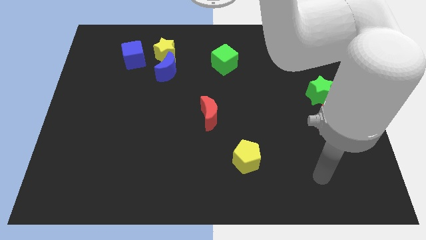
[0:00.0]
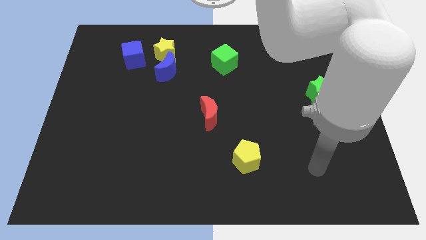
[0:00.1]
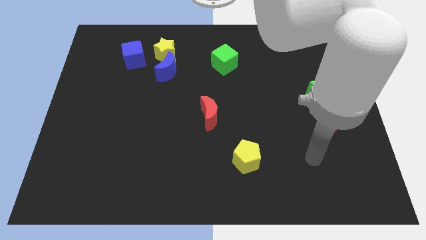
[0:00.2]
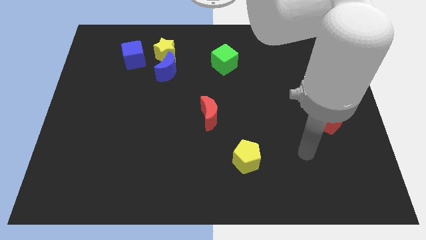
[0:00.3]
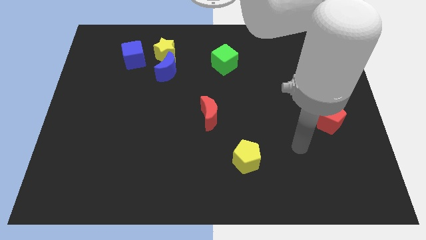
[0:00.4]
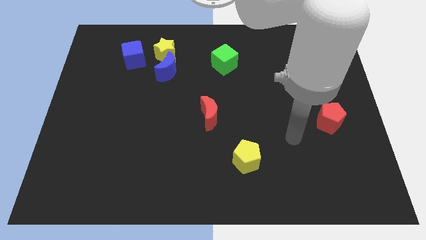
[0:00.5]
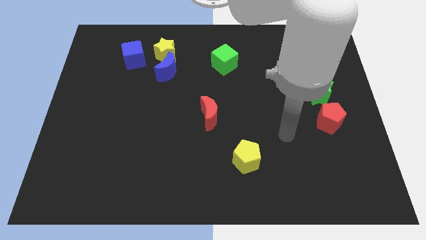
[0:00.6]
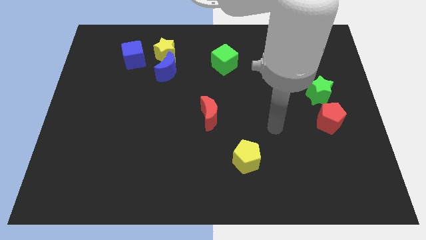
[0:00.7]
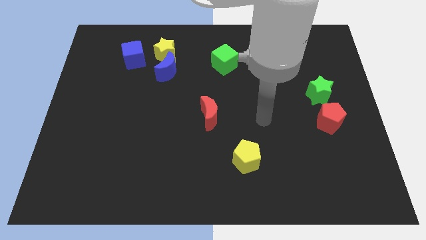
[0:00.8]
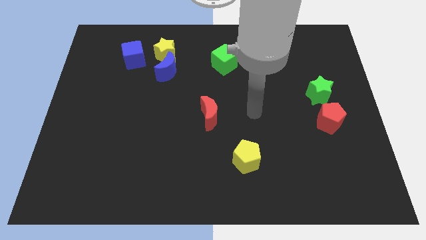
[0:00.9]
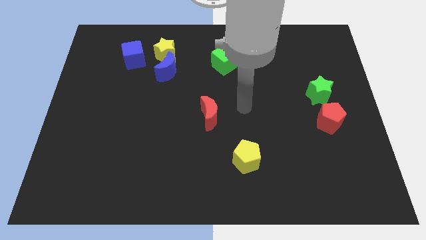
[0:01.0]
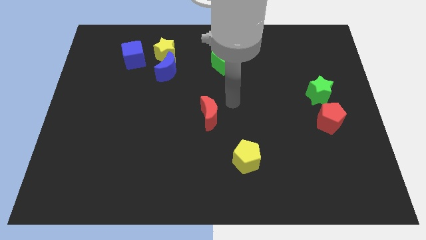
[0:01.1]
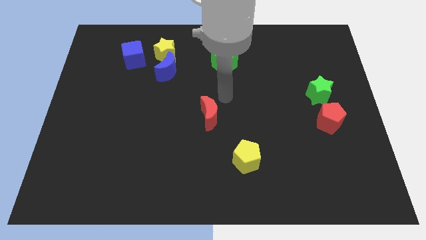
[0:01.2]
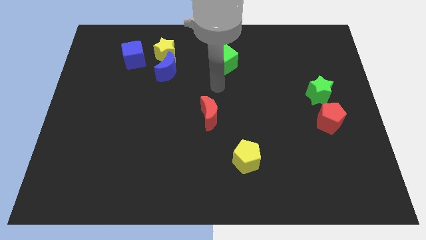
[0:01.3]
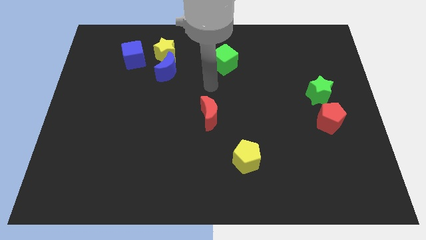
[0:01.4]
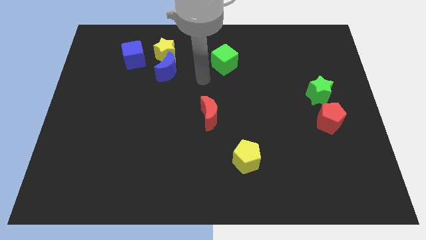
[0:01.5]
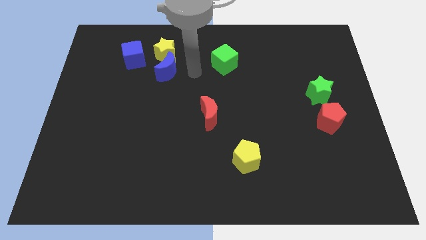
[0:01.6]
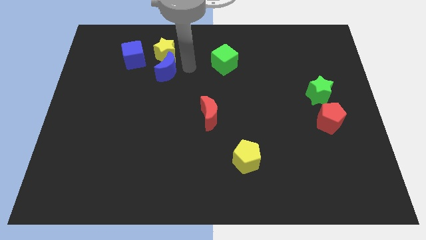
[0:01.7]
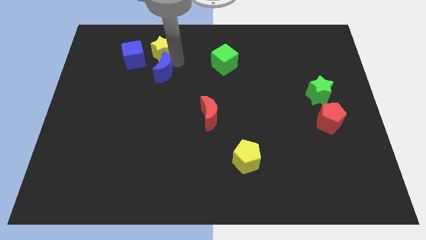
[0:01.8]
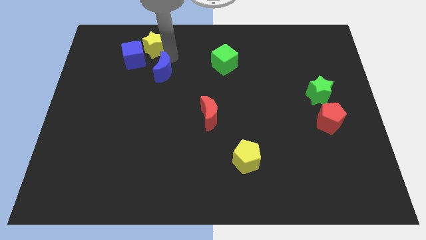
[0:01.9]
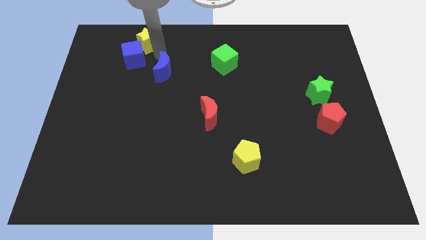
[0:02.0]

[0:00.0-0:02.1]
separate the blue moon from the yellow star

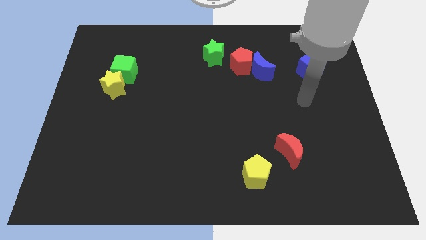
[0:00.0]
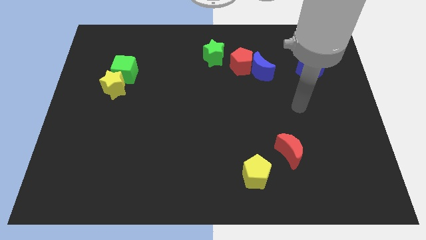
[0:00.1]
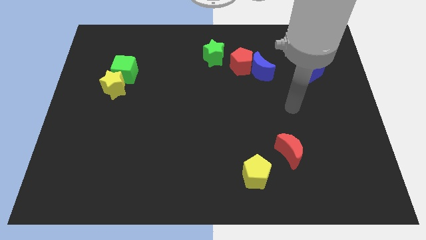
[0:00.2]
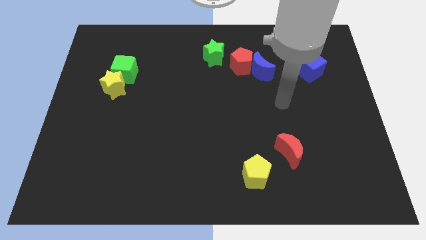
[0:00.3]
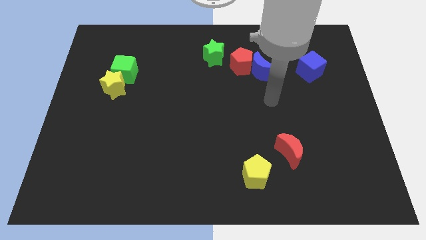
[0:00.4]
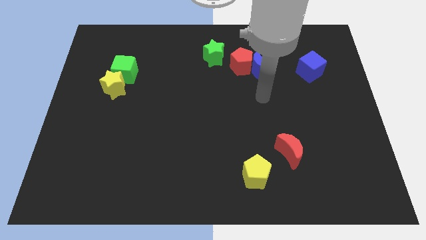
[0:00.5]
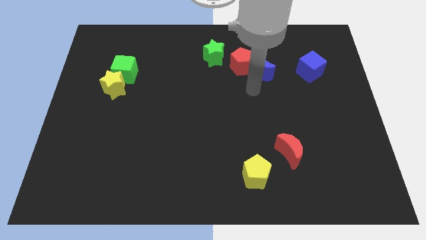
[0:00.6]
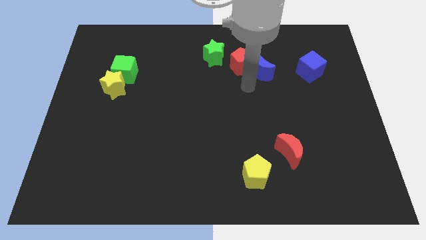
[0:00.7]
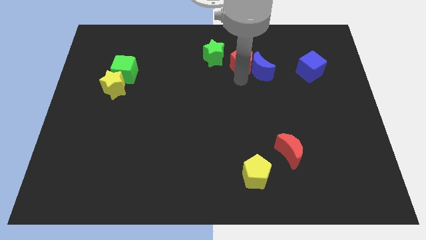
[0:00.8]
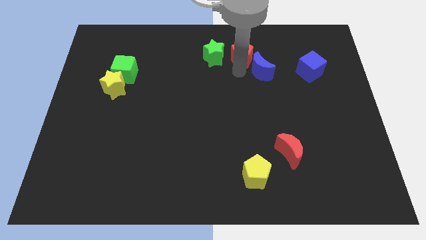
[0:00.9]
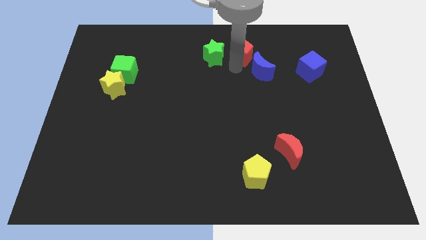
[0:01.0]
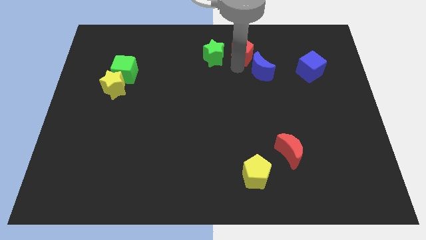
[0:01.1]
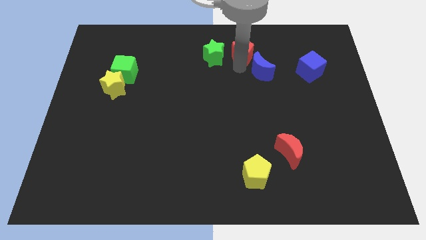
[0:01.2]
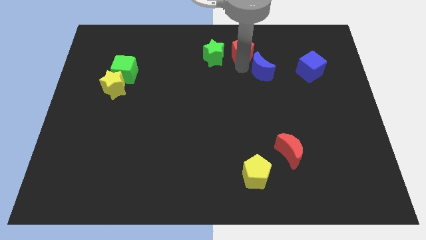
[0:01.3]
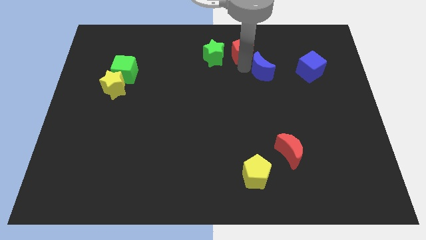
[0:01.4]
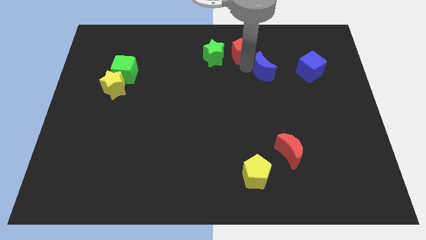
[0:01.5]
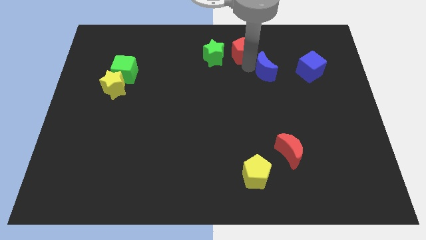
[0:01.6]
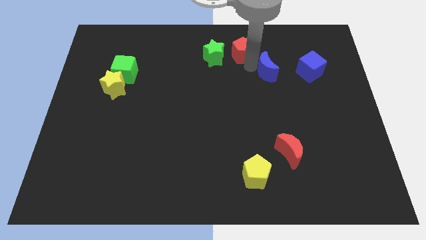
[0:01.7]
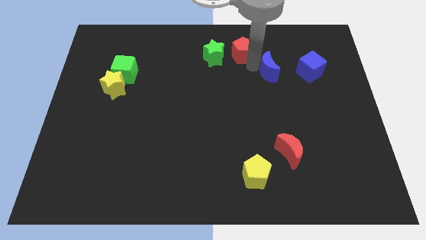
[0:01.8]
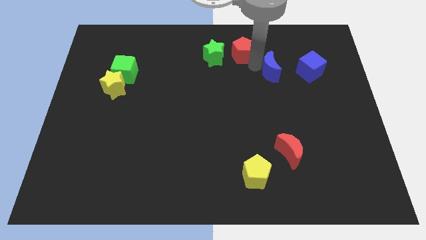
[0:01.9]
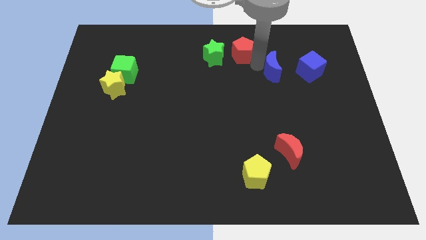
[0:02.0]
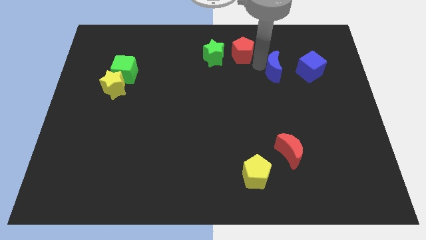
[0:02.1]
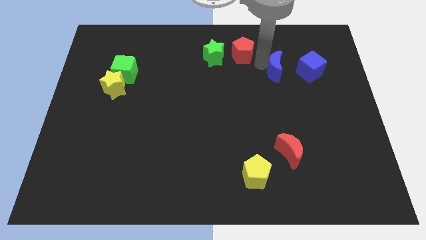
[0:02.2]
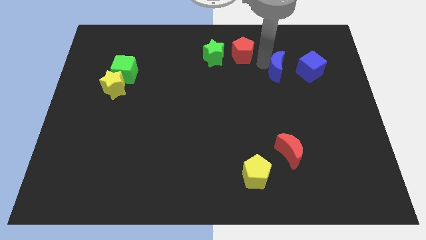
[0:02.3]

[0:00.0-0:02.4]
pull the blue moon apart from the red pentagon

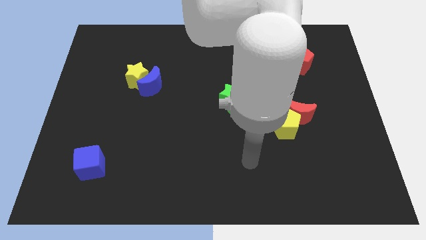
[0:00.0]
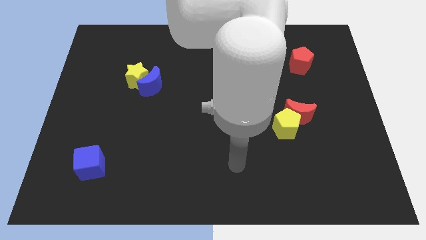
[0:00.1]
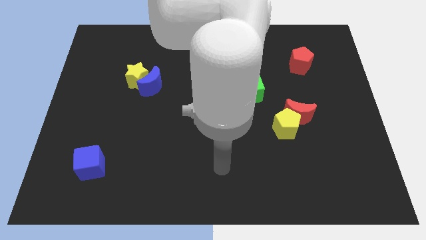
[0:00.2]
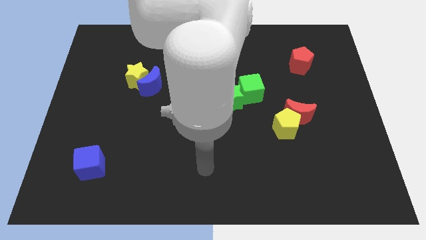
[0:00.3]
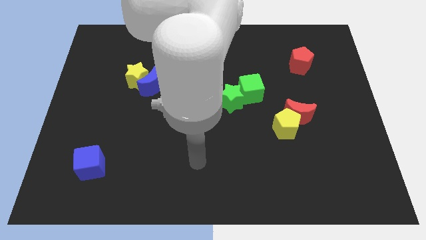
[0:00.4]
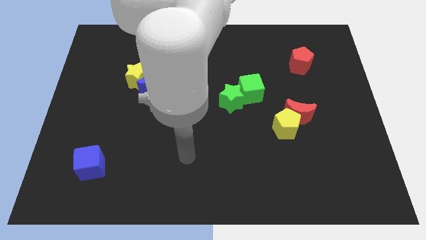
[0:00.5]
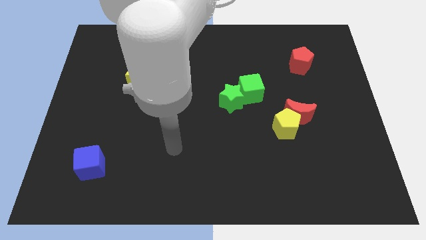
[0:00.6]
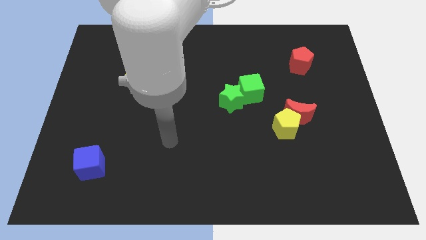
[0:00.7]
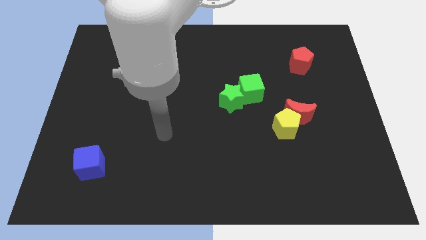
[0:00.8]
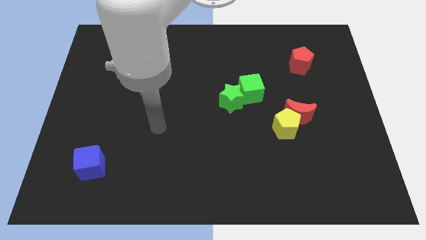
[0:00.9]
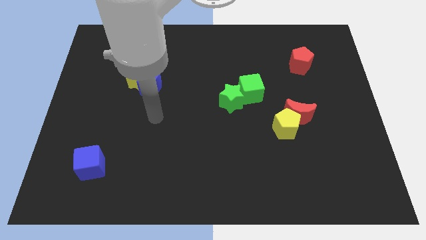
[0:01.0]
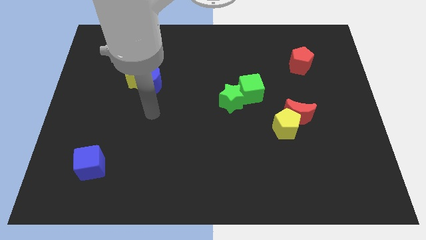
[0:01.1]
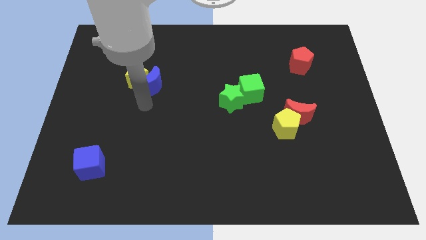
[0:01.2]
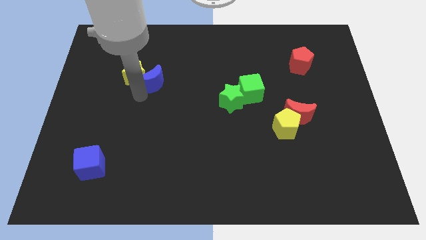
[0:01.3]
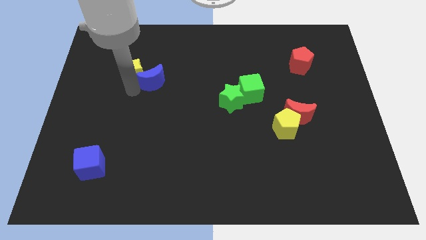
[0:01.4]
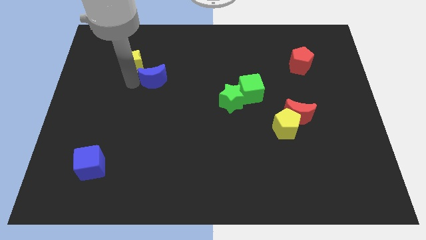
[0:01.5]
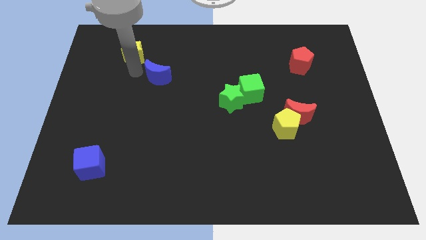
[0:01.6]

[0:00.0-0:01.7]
move the blue moon away from the yellow star

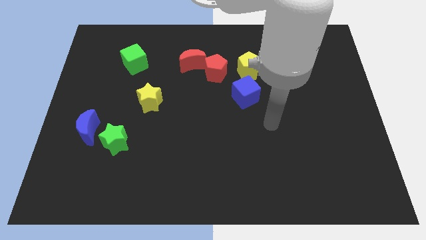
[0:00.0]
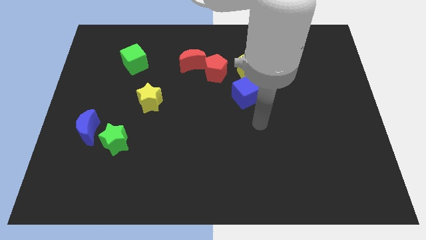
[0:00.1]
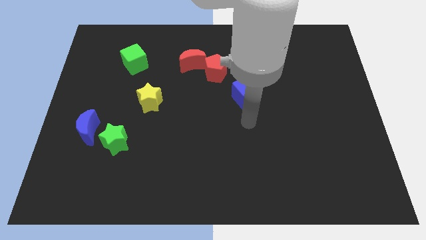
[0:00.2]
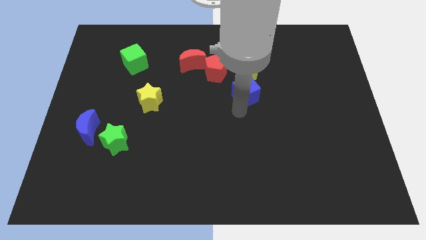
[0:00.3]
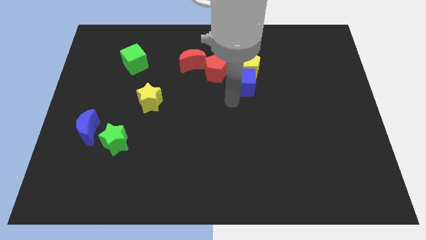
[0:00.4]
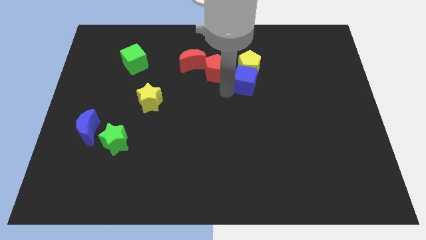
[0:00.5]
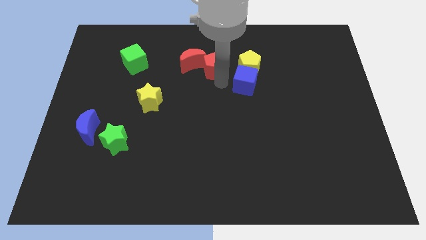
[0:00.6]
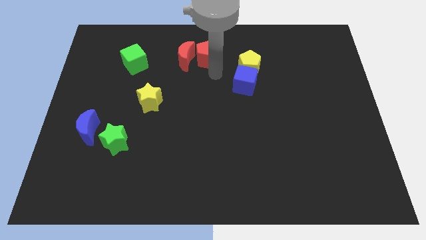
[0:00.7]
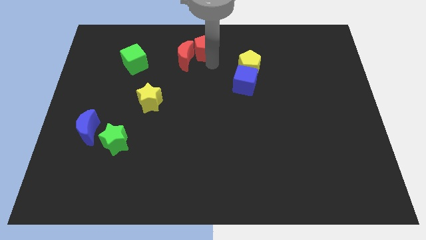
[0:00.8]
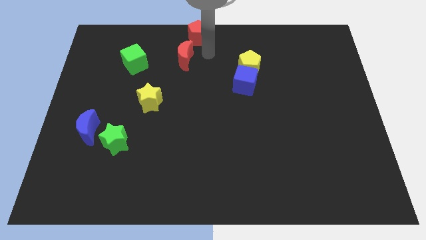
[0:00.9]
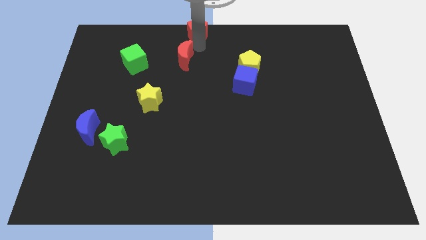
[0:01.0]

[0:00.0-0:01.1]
separate the red moon from the red pentagon

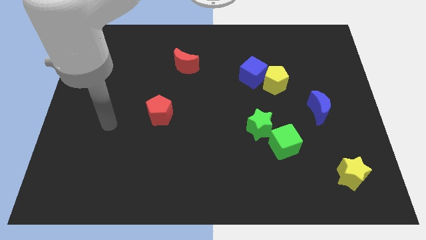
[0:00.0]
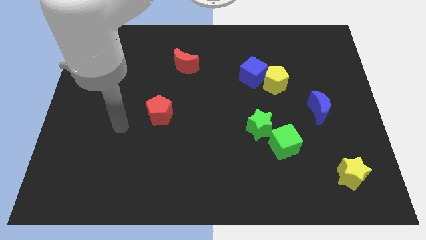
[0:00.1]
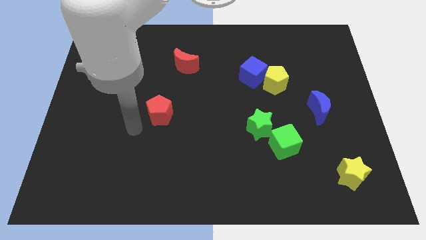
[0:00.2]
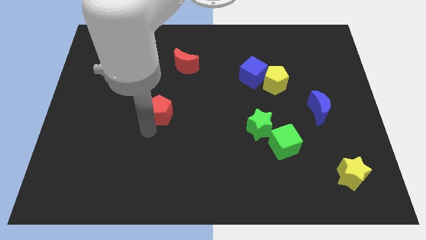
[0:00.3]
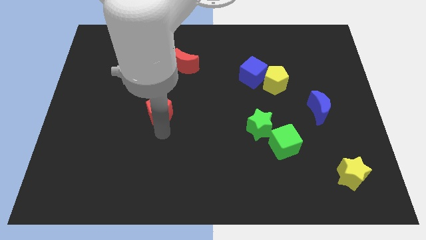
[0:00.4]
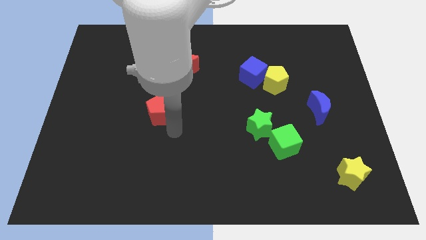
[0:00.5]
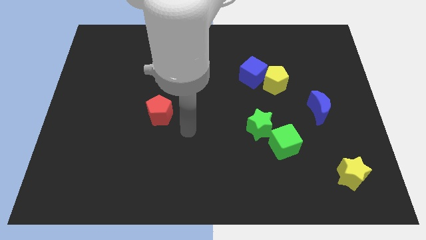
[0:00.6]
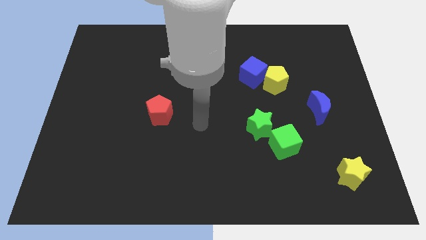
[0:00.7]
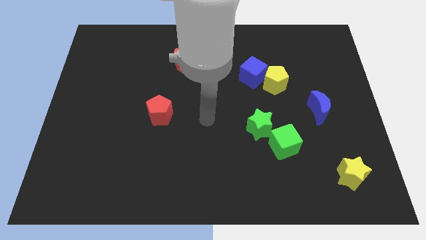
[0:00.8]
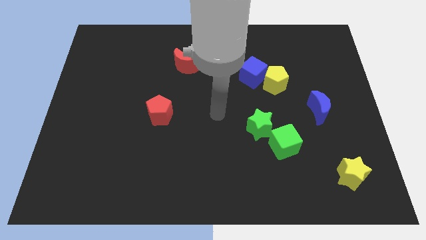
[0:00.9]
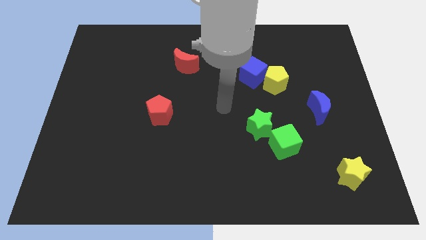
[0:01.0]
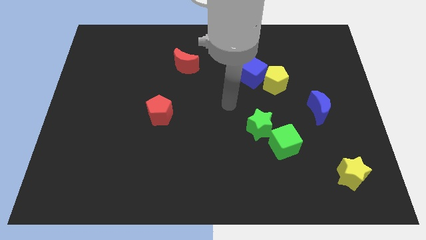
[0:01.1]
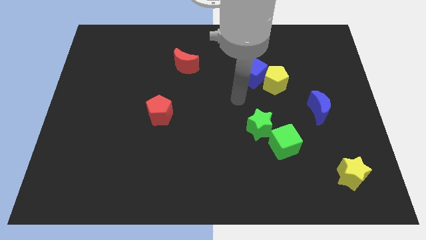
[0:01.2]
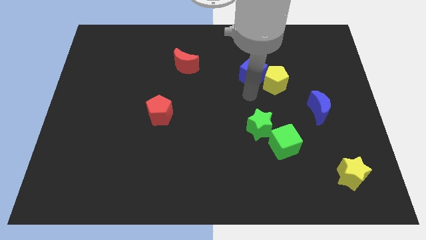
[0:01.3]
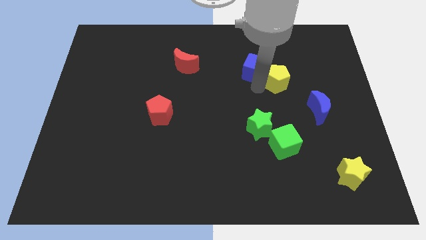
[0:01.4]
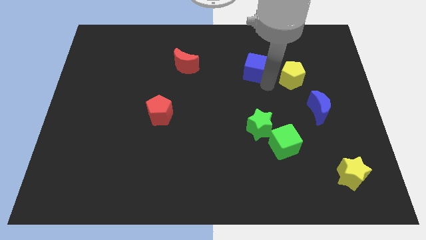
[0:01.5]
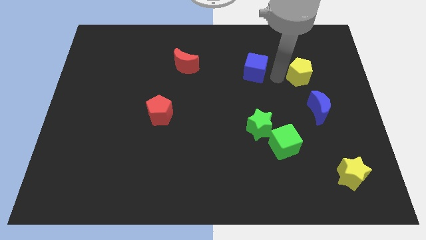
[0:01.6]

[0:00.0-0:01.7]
move the blue cube away from the yellow pentagon

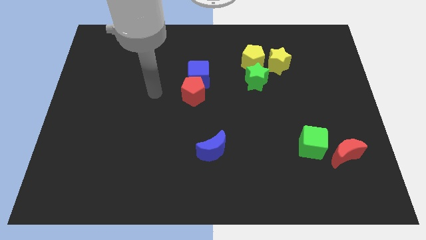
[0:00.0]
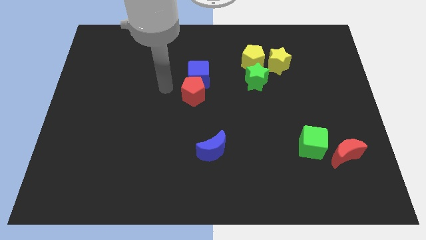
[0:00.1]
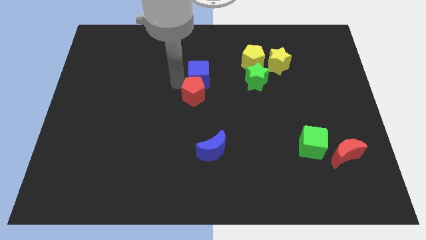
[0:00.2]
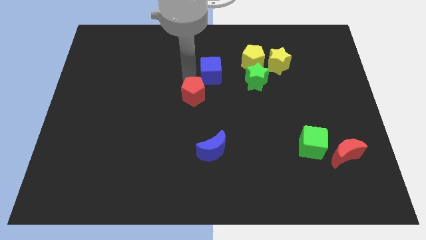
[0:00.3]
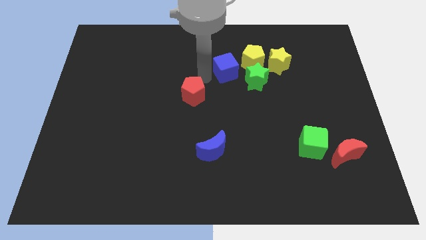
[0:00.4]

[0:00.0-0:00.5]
pull the red pentagon apart from the blue cube

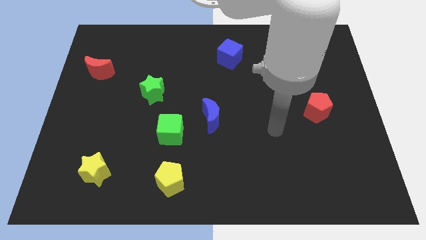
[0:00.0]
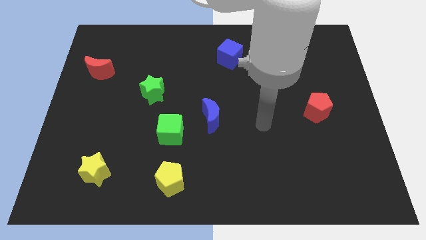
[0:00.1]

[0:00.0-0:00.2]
separate the blue moon from the green cube
